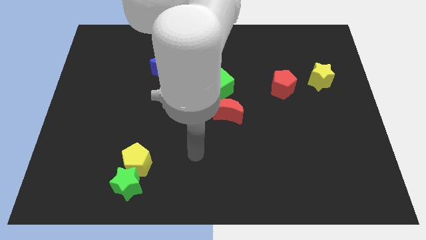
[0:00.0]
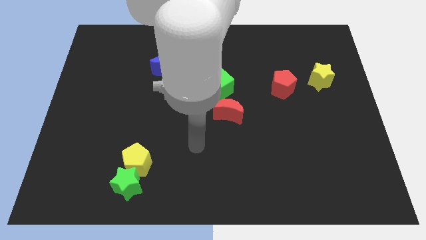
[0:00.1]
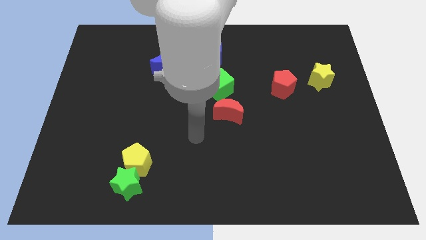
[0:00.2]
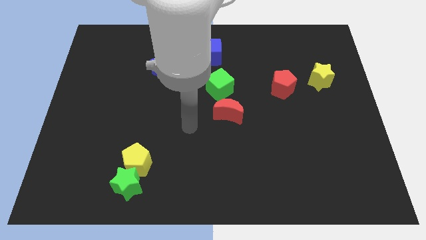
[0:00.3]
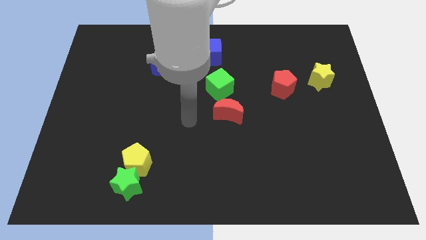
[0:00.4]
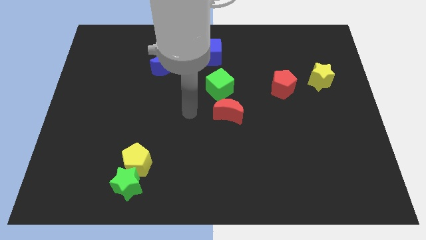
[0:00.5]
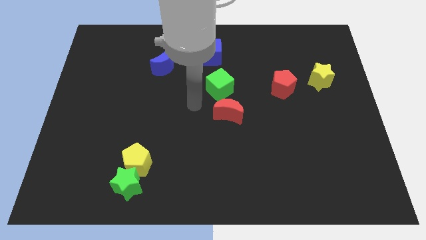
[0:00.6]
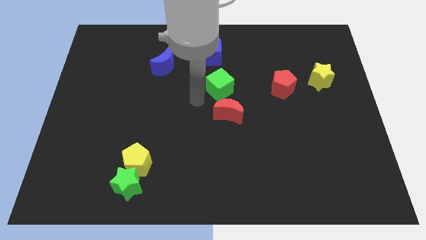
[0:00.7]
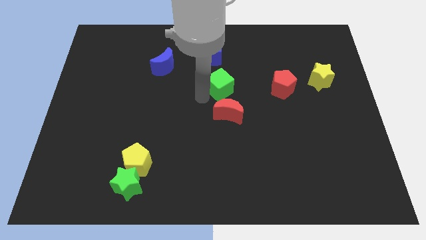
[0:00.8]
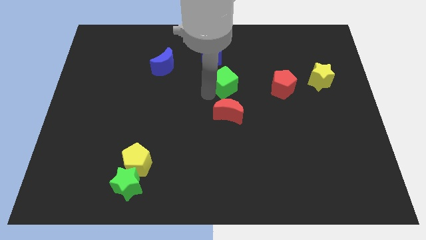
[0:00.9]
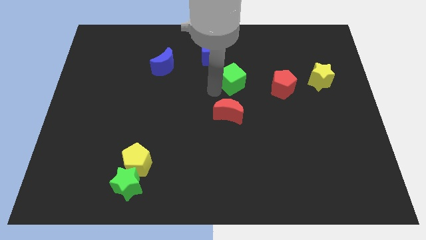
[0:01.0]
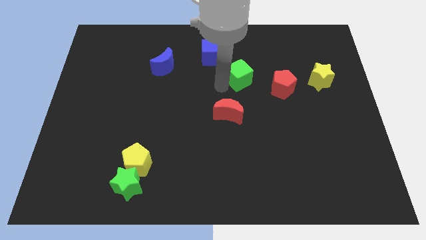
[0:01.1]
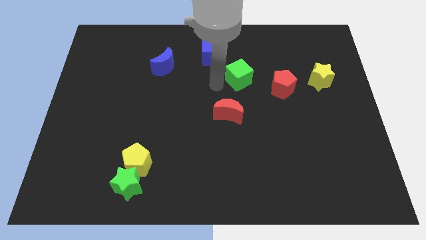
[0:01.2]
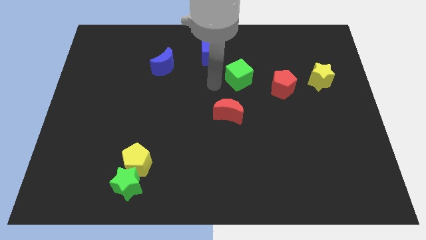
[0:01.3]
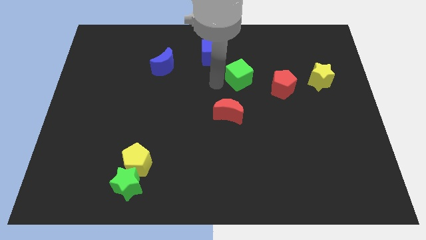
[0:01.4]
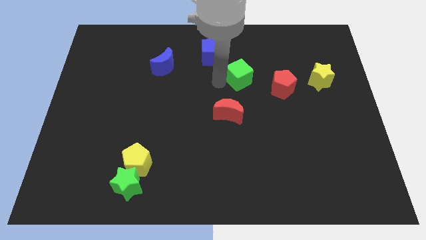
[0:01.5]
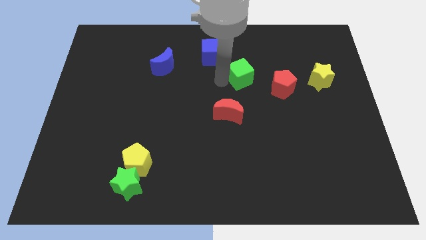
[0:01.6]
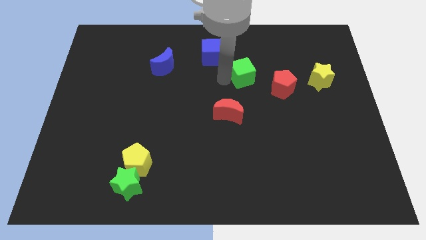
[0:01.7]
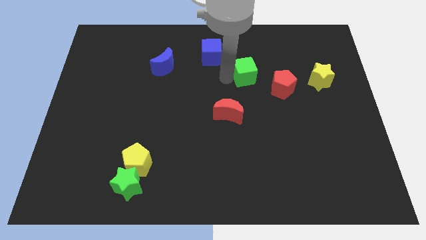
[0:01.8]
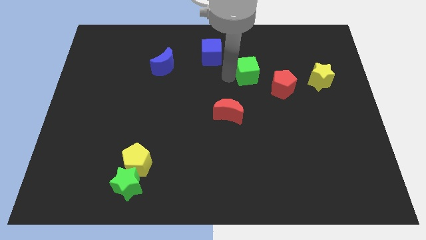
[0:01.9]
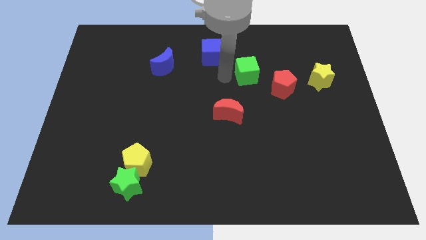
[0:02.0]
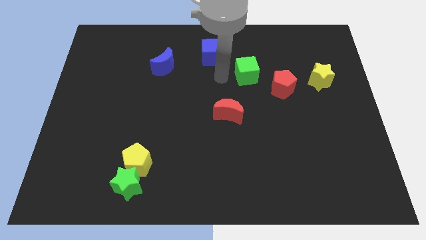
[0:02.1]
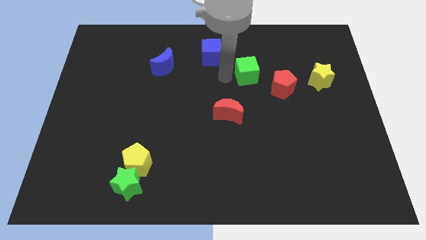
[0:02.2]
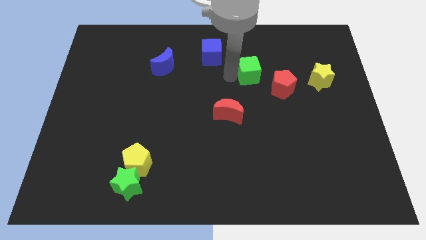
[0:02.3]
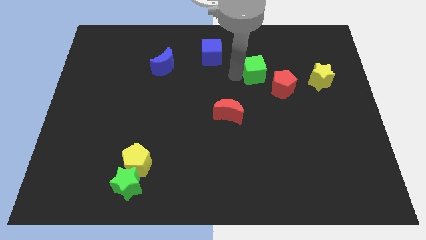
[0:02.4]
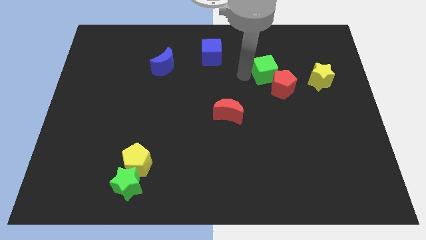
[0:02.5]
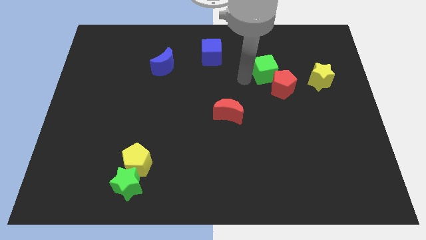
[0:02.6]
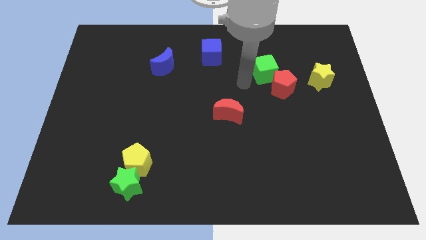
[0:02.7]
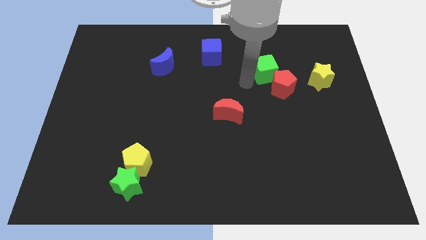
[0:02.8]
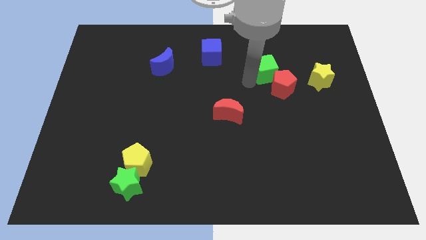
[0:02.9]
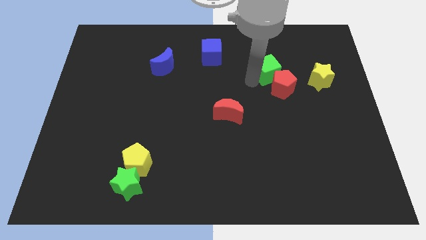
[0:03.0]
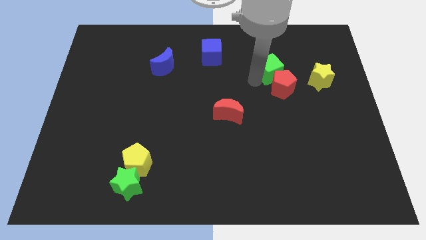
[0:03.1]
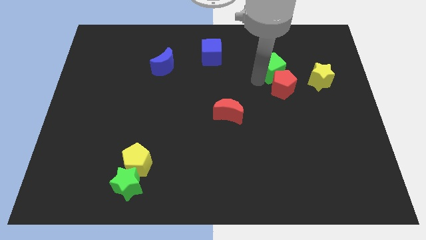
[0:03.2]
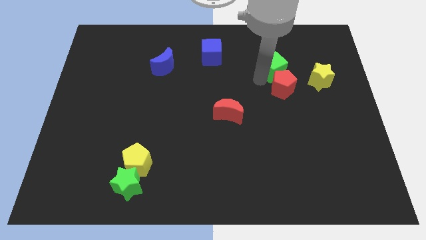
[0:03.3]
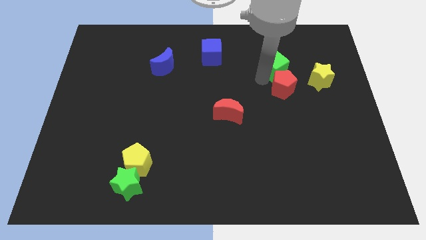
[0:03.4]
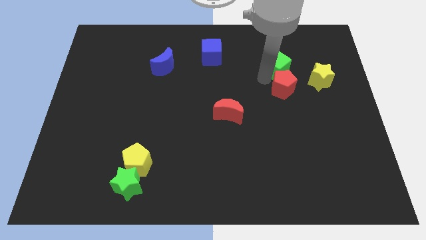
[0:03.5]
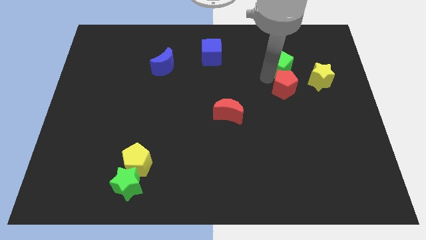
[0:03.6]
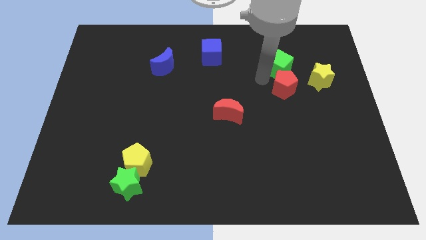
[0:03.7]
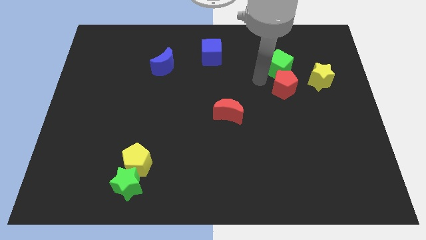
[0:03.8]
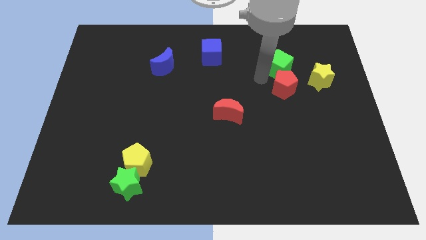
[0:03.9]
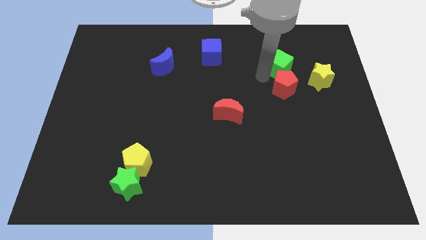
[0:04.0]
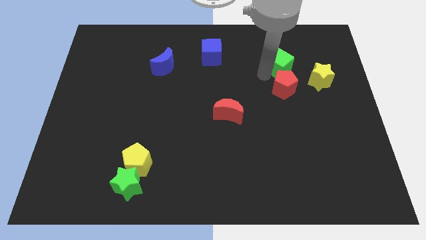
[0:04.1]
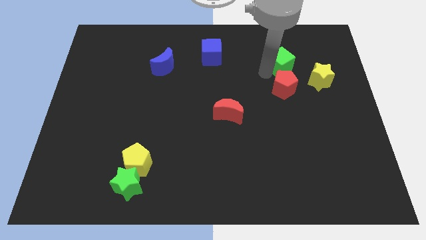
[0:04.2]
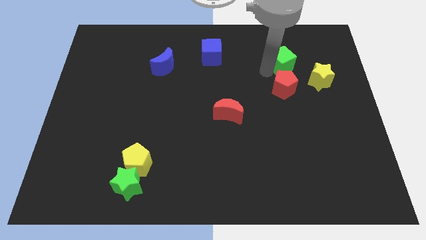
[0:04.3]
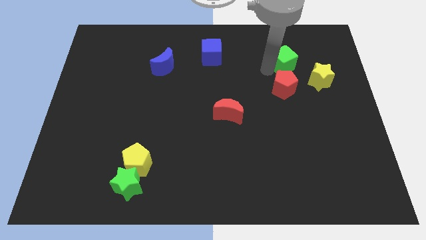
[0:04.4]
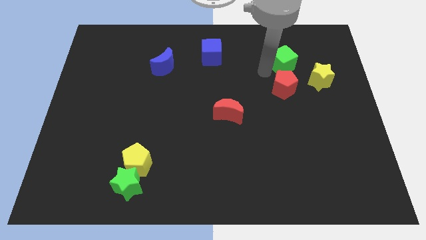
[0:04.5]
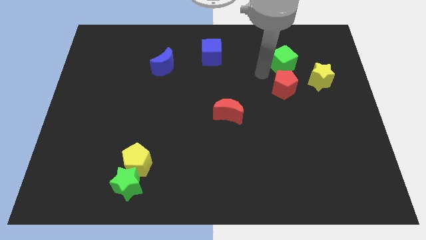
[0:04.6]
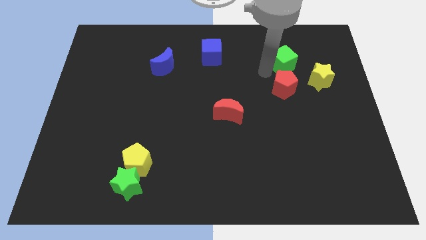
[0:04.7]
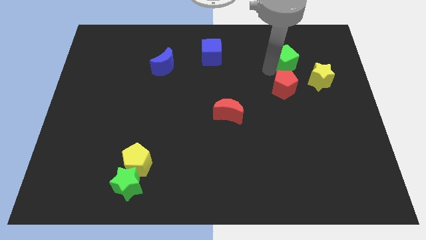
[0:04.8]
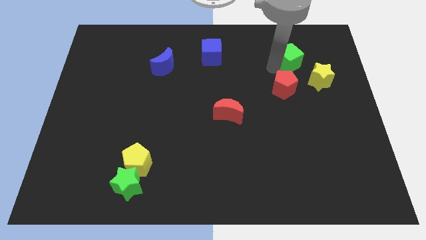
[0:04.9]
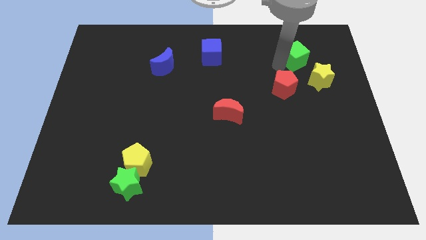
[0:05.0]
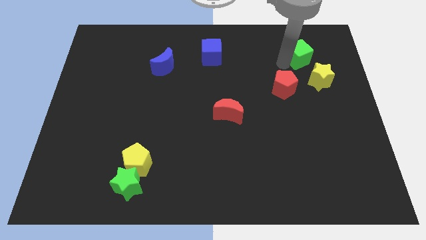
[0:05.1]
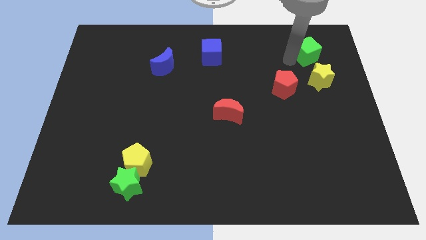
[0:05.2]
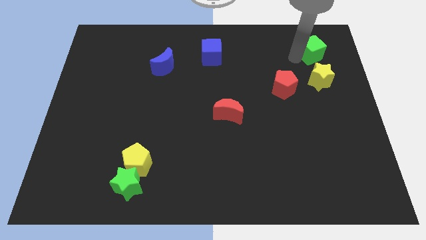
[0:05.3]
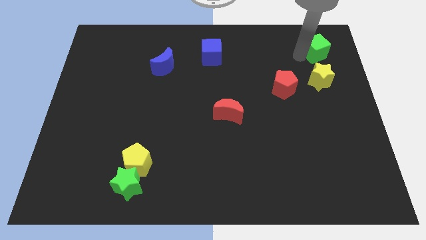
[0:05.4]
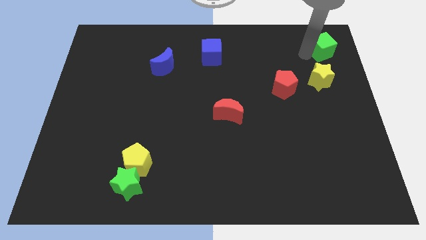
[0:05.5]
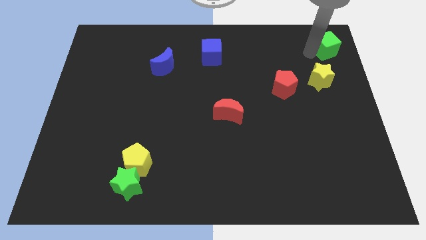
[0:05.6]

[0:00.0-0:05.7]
slide the green cube to the top right
